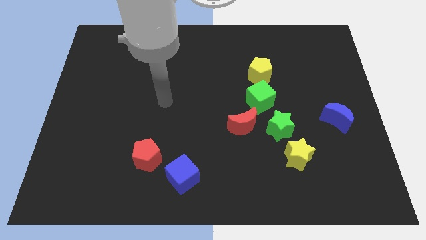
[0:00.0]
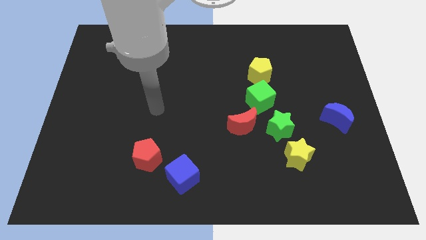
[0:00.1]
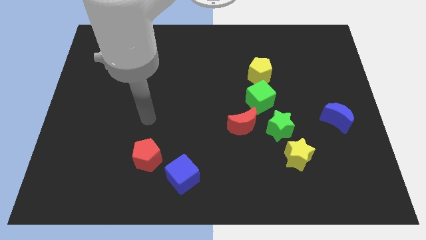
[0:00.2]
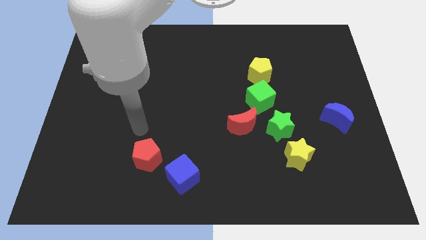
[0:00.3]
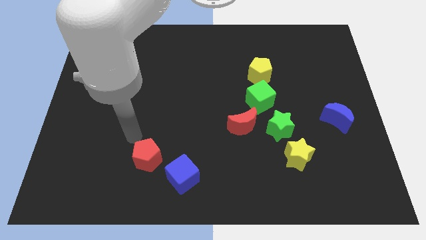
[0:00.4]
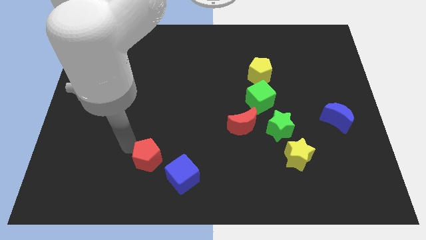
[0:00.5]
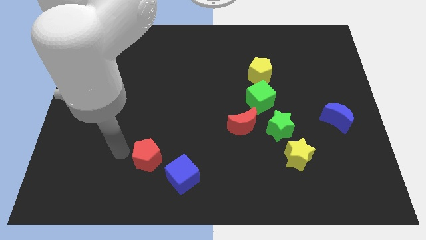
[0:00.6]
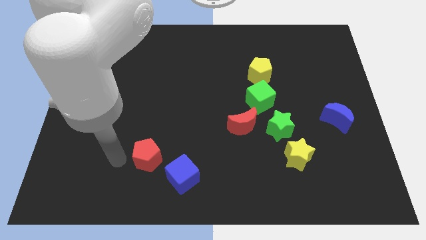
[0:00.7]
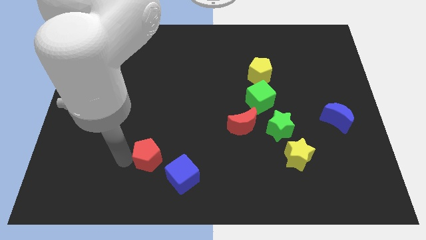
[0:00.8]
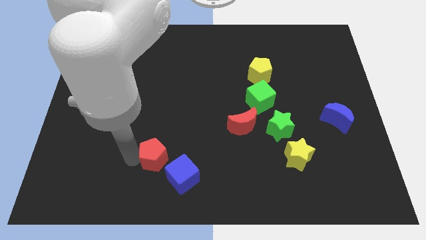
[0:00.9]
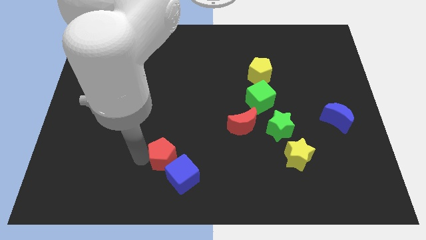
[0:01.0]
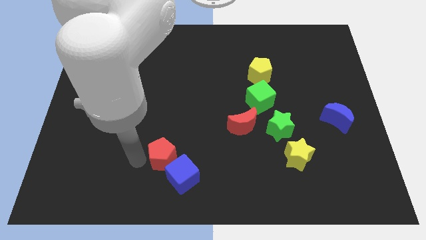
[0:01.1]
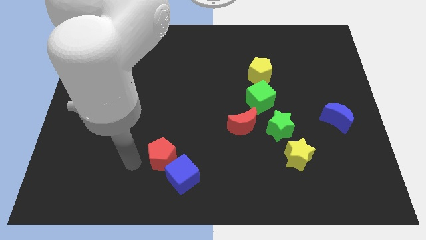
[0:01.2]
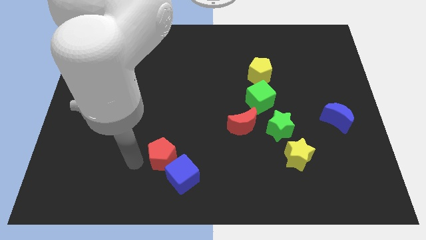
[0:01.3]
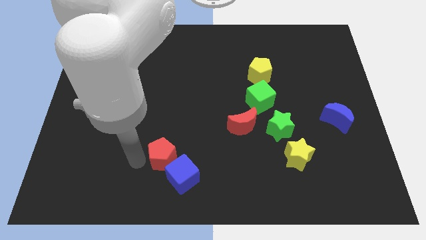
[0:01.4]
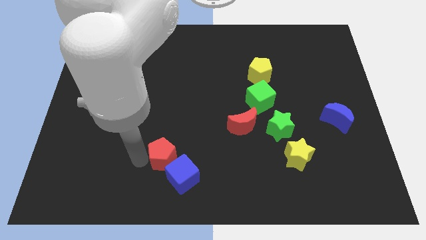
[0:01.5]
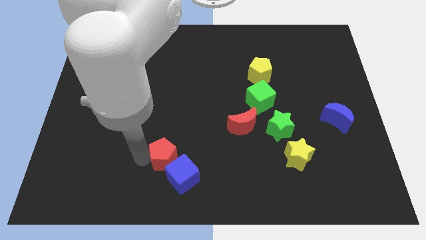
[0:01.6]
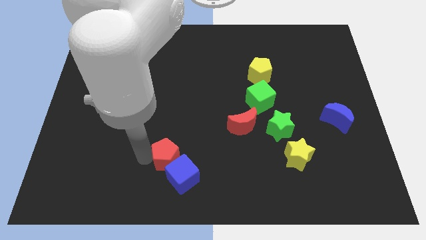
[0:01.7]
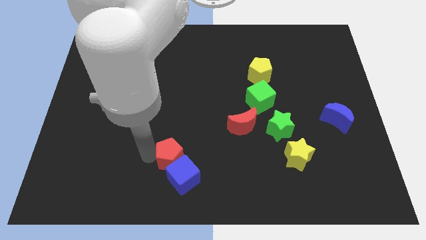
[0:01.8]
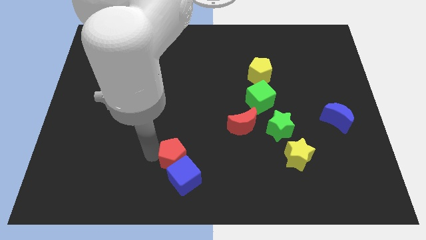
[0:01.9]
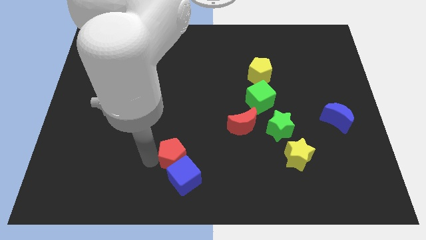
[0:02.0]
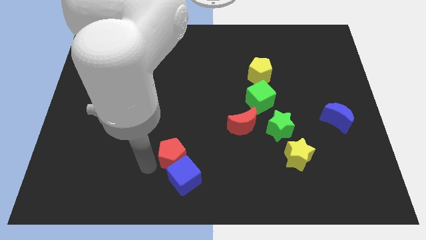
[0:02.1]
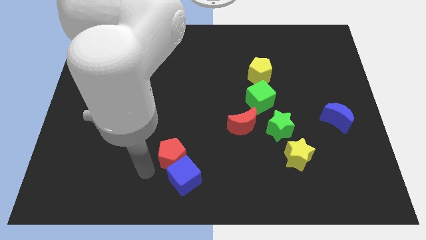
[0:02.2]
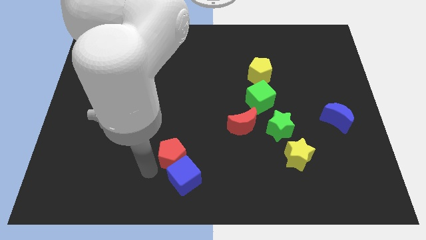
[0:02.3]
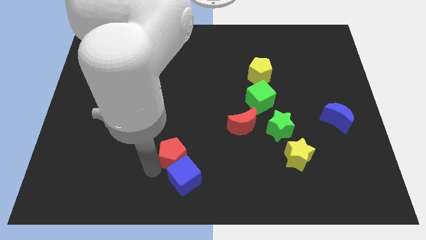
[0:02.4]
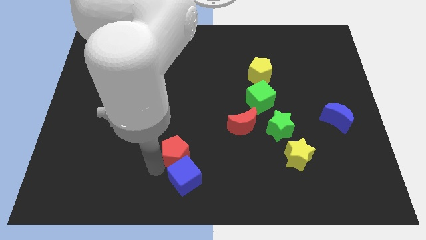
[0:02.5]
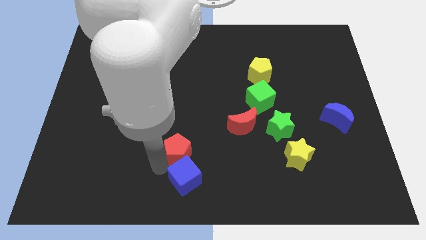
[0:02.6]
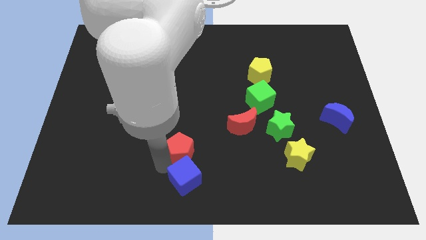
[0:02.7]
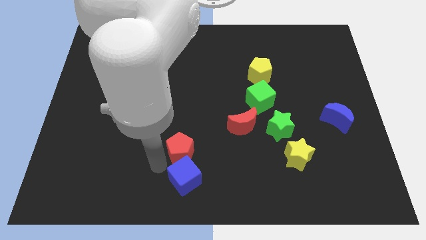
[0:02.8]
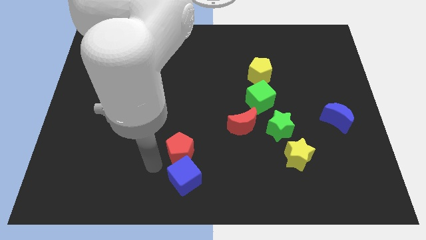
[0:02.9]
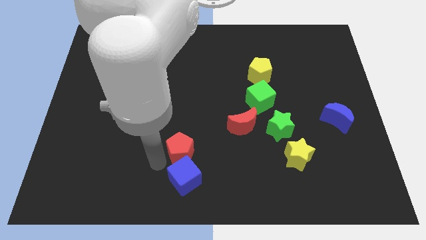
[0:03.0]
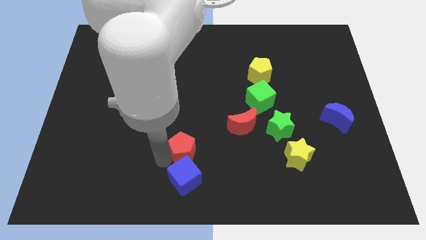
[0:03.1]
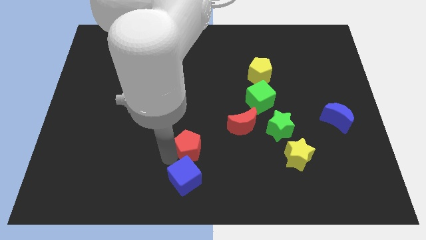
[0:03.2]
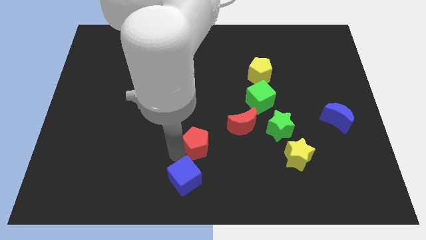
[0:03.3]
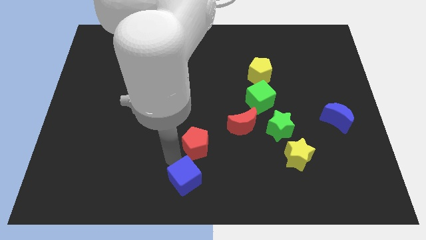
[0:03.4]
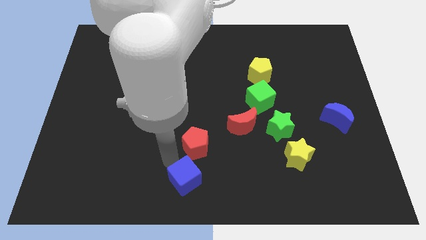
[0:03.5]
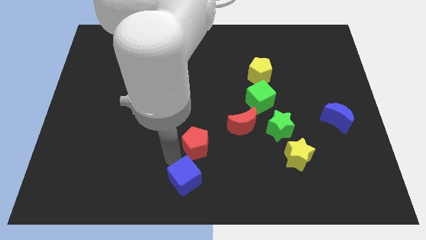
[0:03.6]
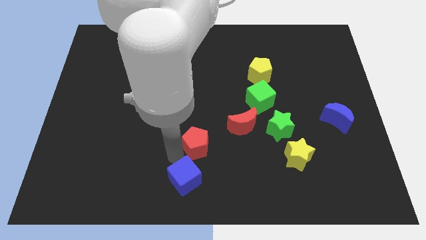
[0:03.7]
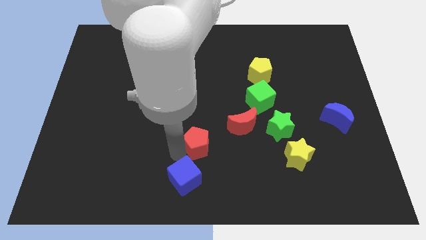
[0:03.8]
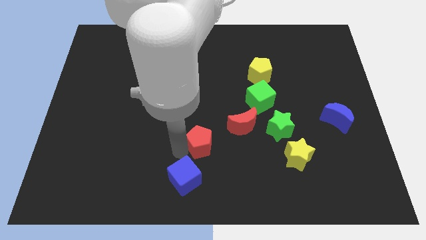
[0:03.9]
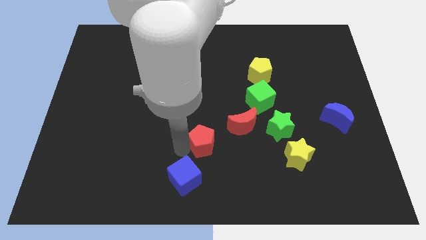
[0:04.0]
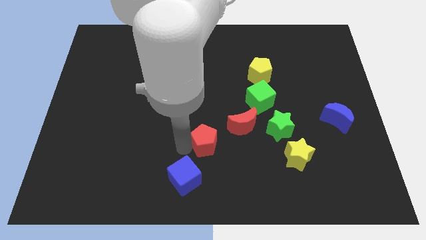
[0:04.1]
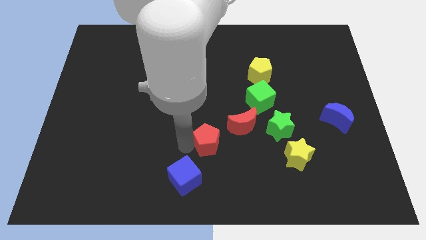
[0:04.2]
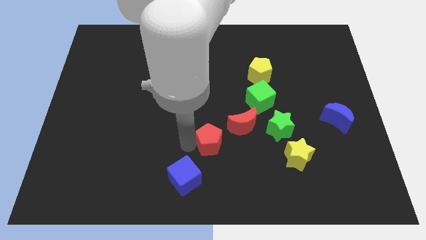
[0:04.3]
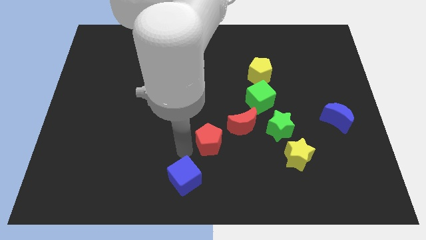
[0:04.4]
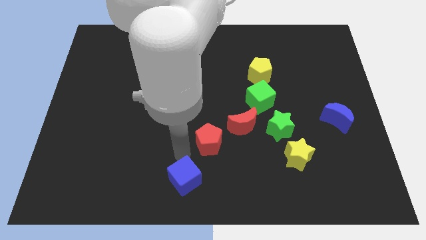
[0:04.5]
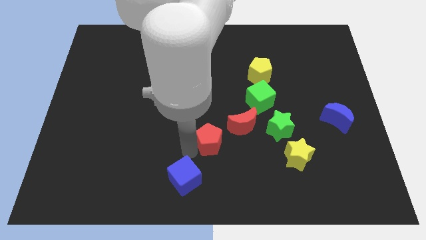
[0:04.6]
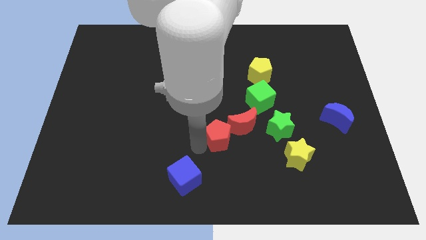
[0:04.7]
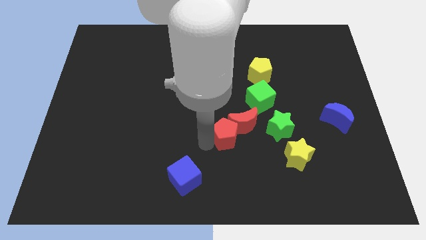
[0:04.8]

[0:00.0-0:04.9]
push the red pentagon to the red moon

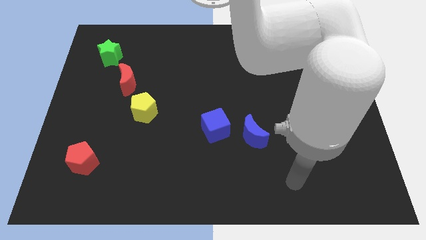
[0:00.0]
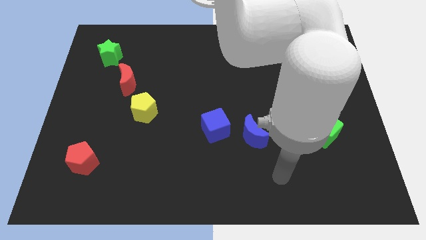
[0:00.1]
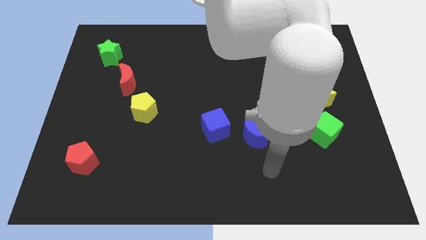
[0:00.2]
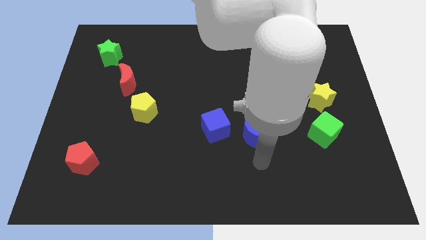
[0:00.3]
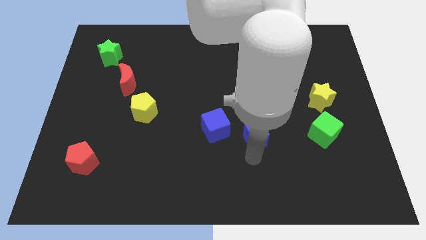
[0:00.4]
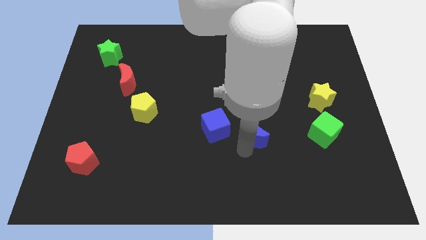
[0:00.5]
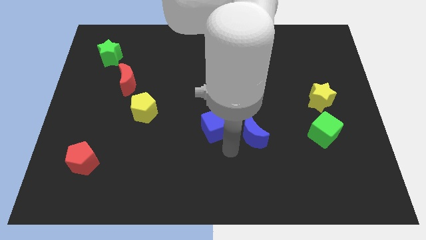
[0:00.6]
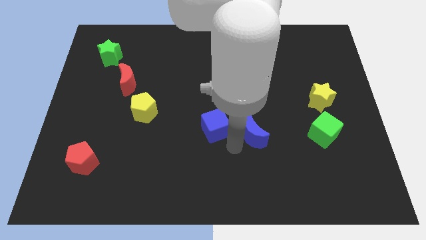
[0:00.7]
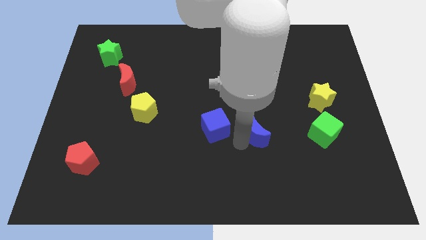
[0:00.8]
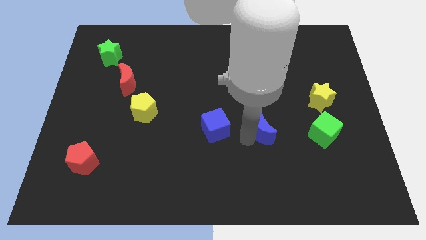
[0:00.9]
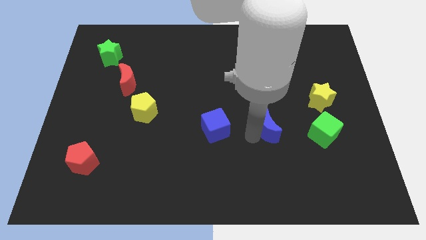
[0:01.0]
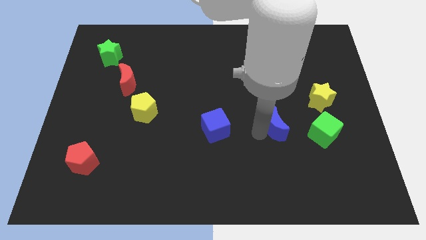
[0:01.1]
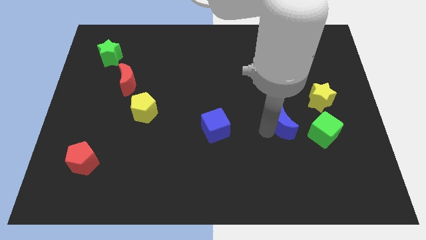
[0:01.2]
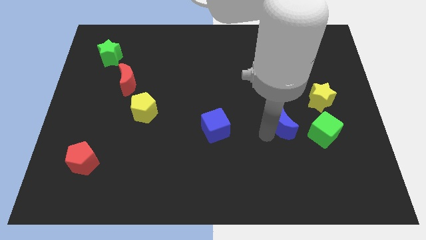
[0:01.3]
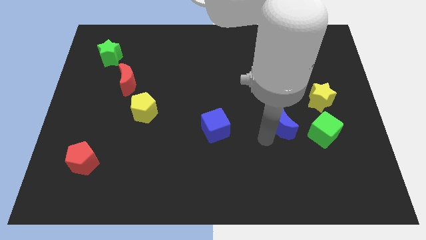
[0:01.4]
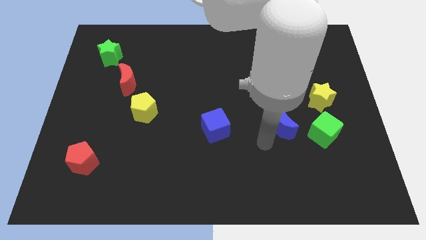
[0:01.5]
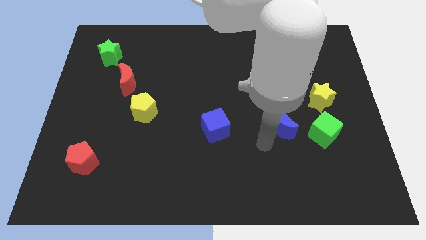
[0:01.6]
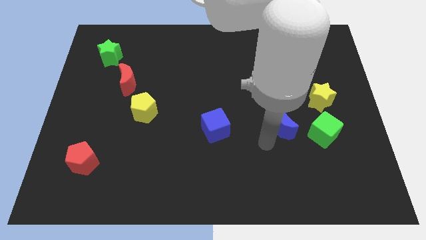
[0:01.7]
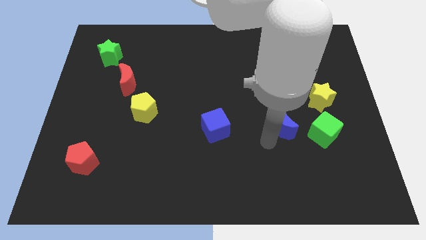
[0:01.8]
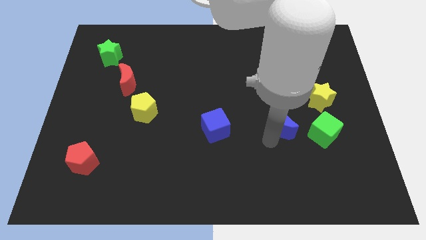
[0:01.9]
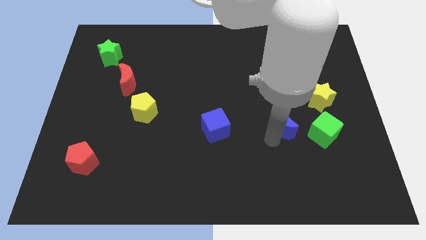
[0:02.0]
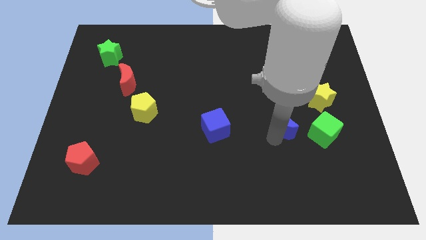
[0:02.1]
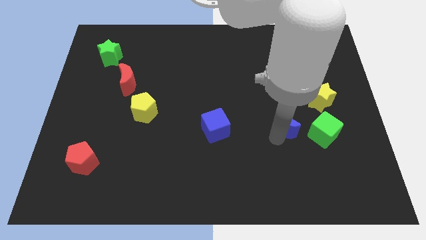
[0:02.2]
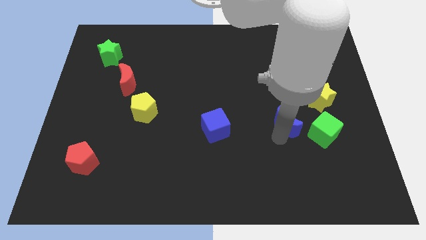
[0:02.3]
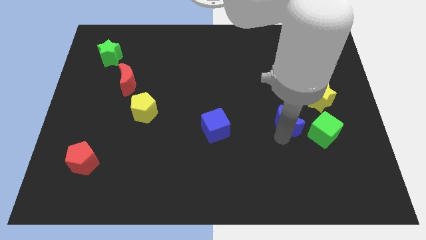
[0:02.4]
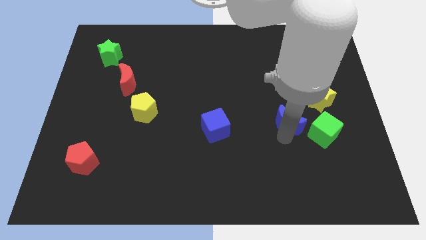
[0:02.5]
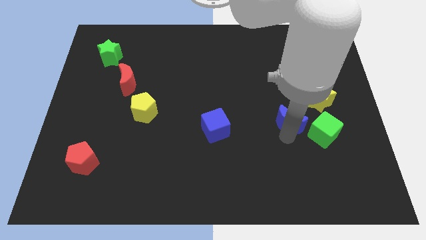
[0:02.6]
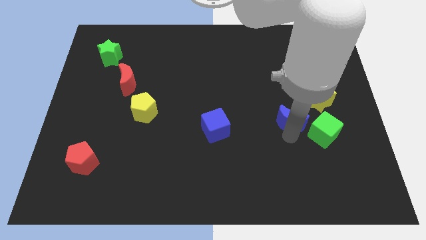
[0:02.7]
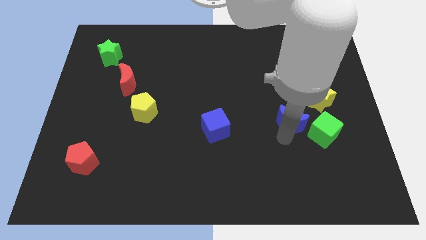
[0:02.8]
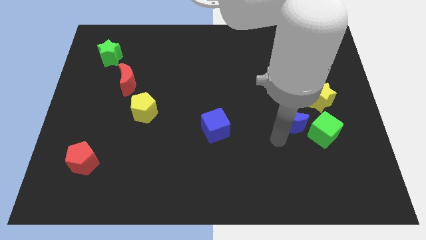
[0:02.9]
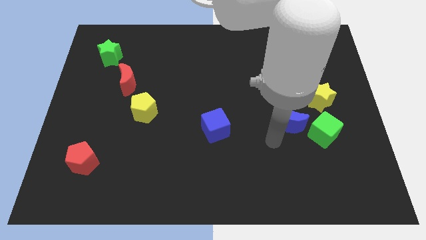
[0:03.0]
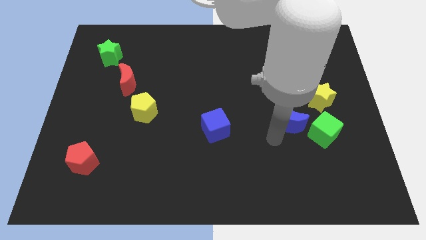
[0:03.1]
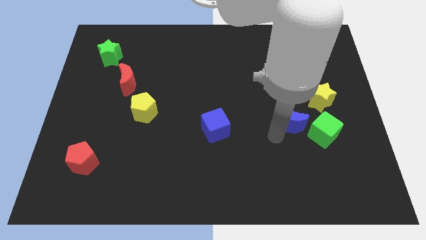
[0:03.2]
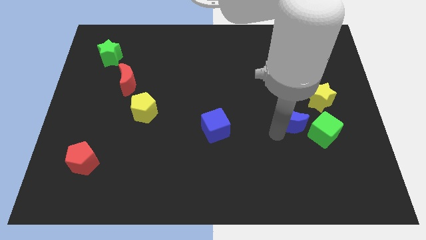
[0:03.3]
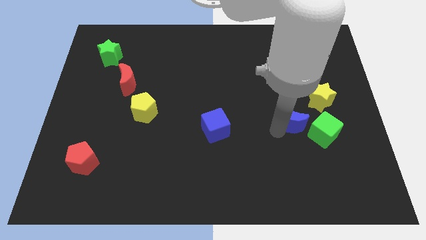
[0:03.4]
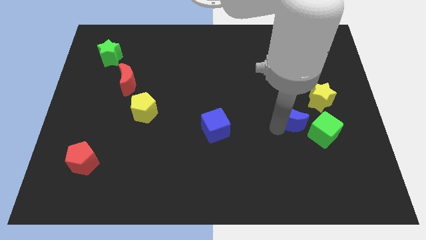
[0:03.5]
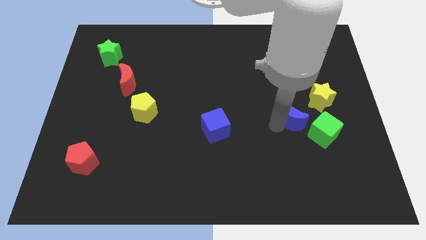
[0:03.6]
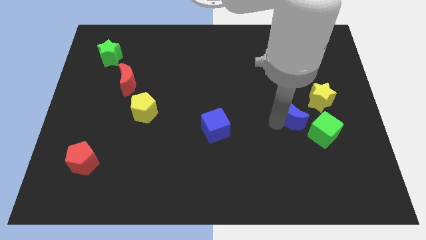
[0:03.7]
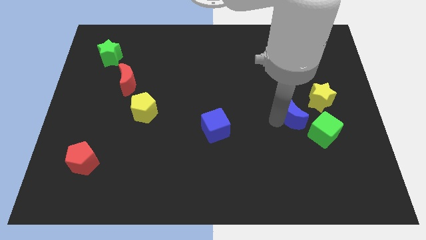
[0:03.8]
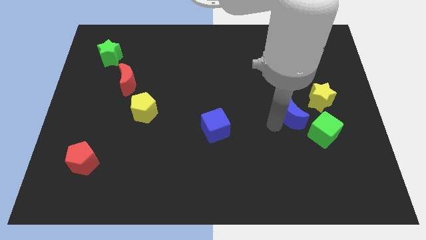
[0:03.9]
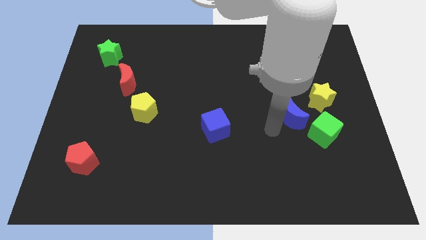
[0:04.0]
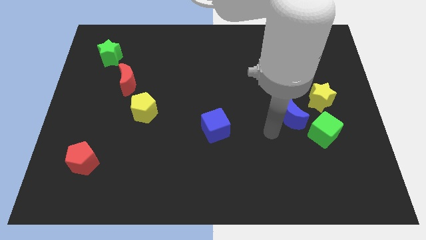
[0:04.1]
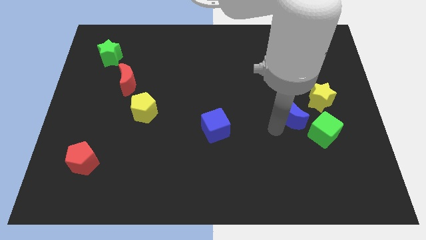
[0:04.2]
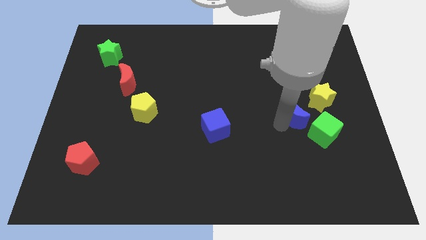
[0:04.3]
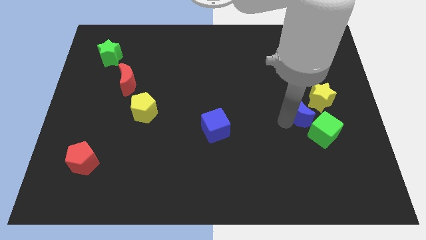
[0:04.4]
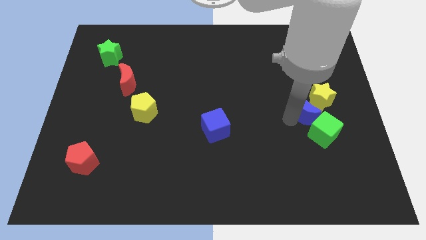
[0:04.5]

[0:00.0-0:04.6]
put the blue moon next to the yellow star
